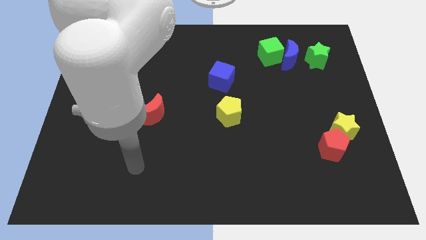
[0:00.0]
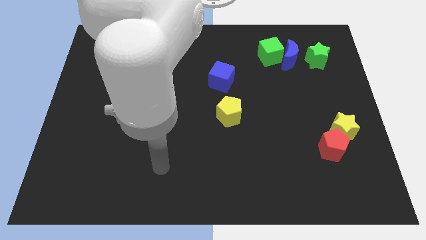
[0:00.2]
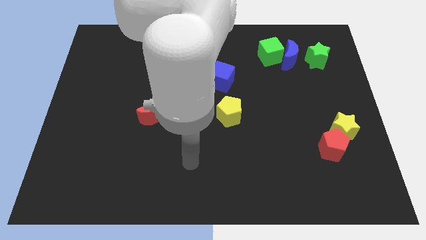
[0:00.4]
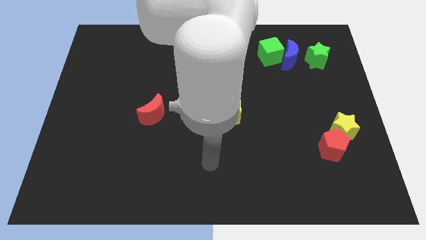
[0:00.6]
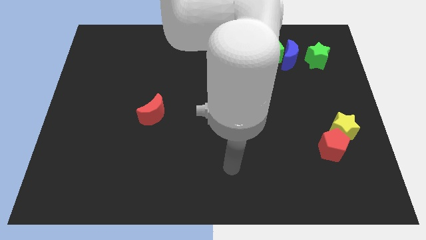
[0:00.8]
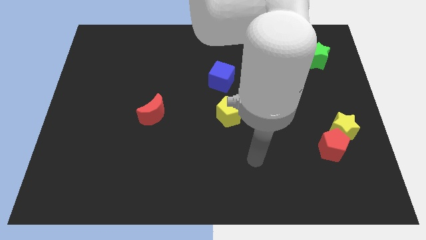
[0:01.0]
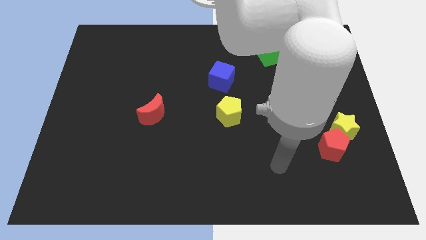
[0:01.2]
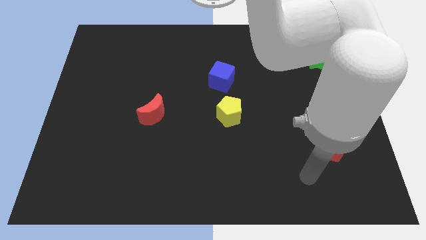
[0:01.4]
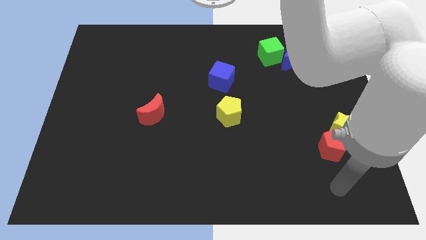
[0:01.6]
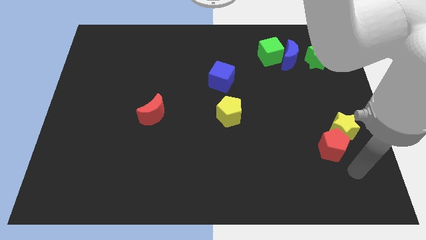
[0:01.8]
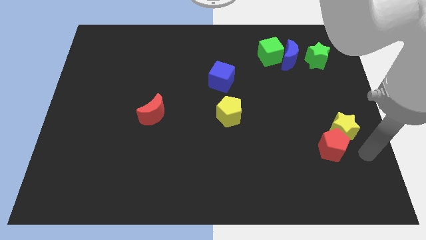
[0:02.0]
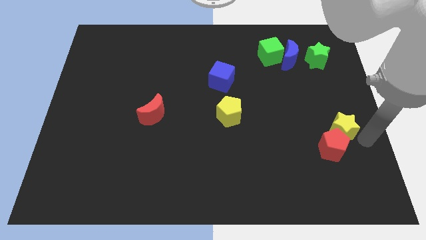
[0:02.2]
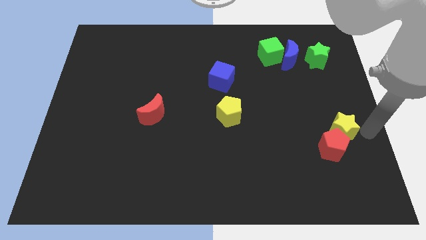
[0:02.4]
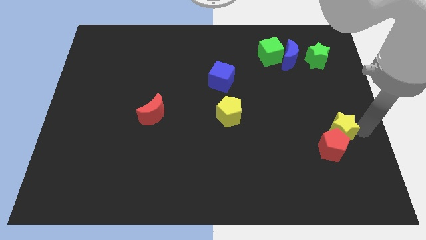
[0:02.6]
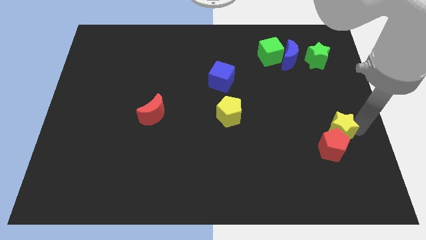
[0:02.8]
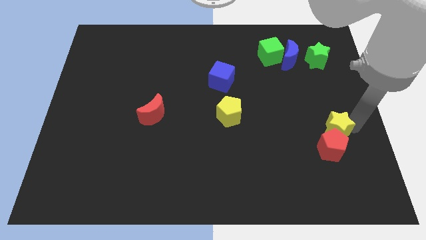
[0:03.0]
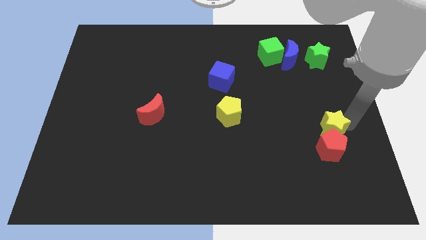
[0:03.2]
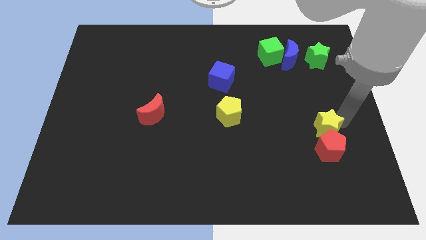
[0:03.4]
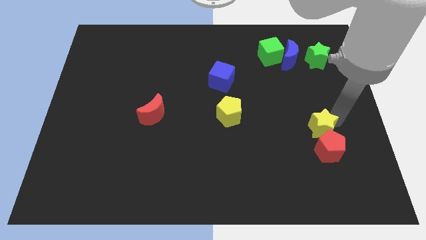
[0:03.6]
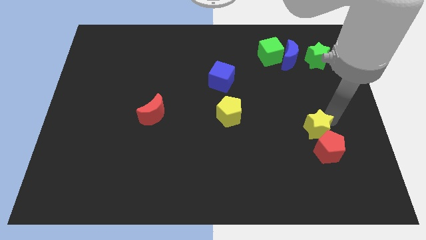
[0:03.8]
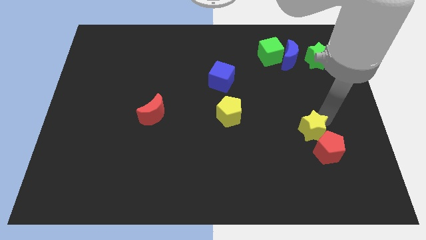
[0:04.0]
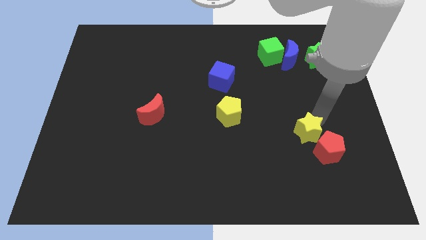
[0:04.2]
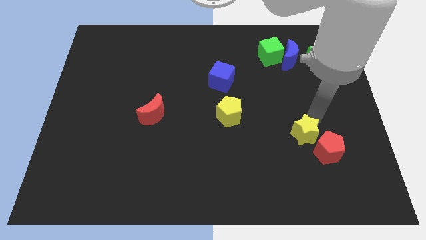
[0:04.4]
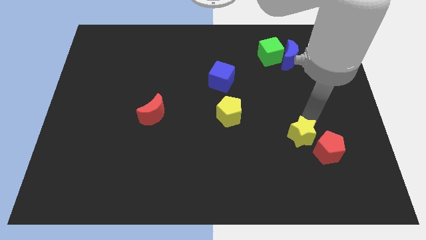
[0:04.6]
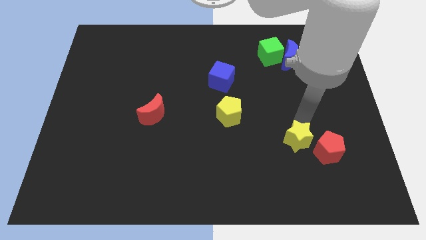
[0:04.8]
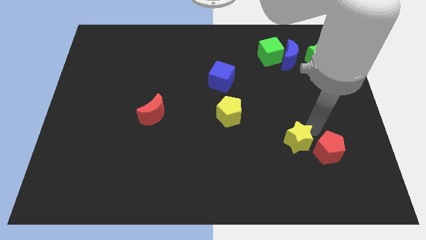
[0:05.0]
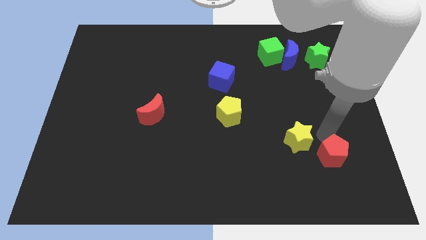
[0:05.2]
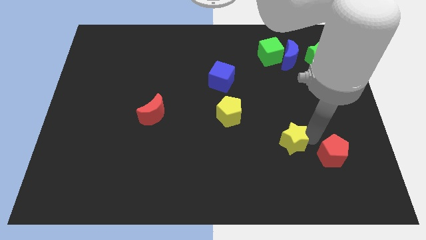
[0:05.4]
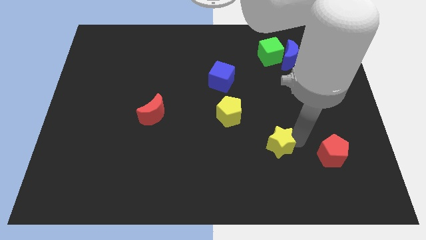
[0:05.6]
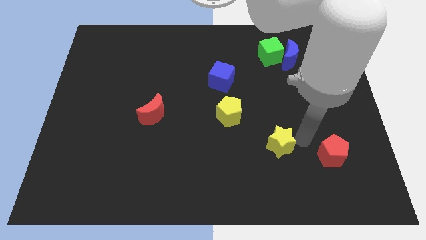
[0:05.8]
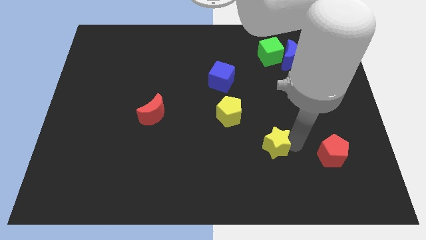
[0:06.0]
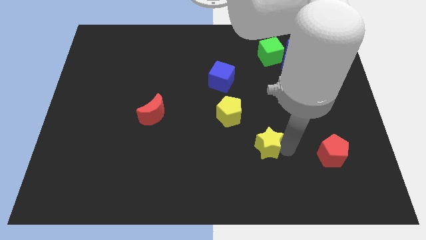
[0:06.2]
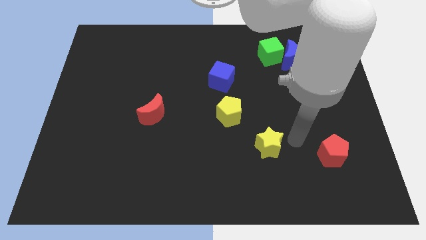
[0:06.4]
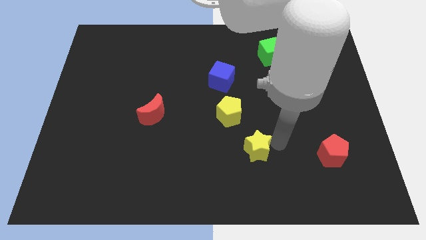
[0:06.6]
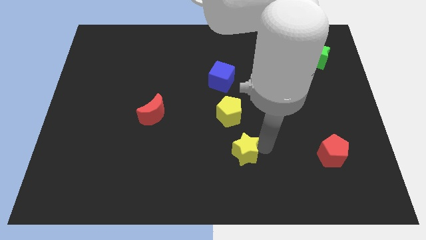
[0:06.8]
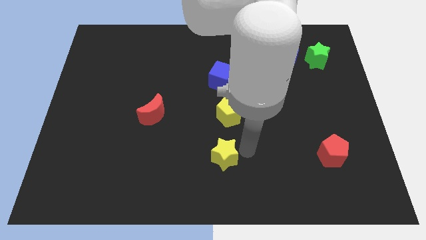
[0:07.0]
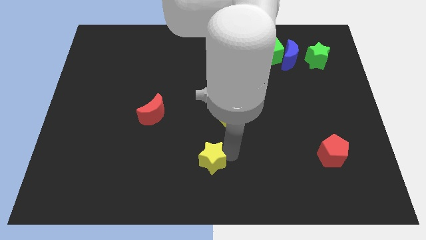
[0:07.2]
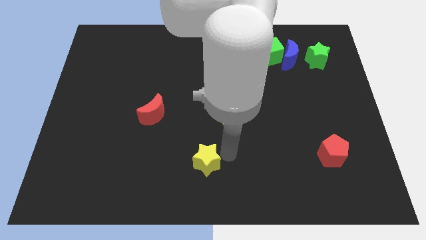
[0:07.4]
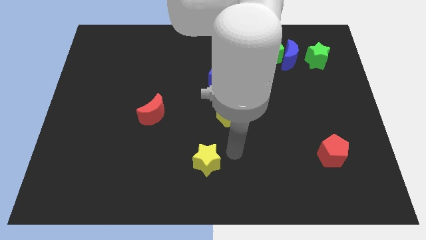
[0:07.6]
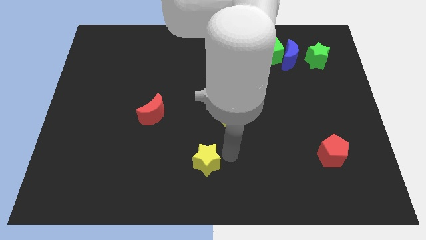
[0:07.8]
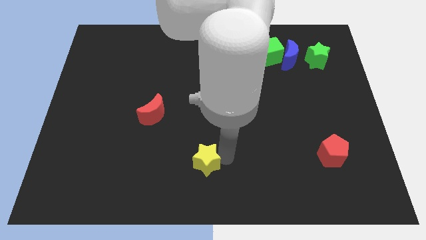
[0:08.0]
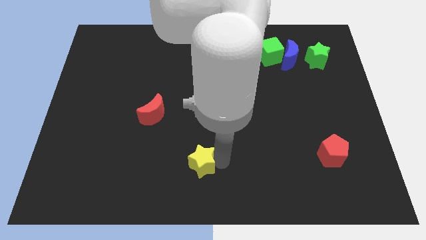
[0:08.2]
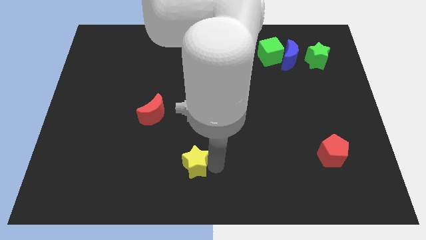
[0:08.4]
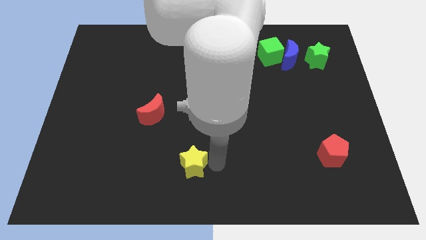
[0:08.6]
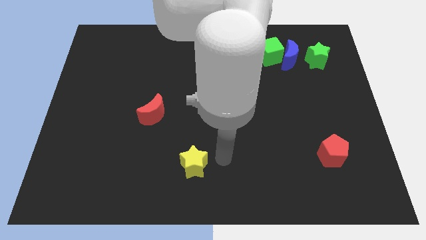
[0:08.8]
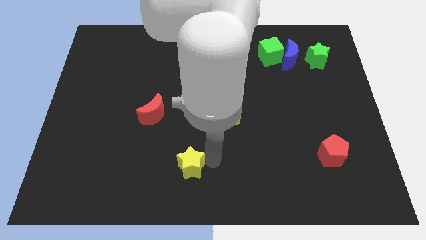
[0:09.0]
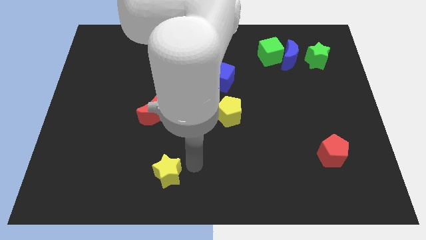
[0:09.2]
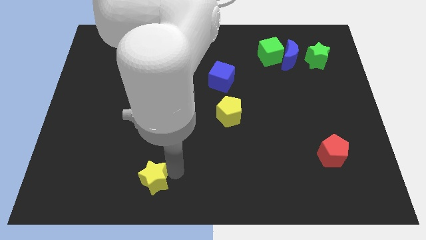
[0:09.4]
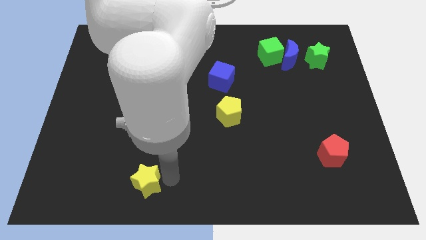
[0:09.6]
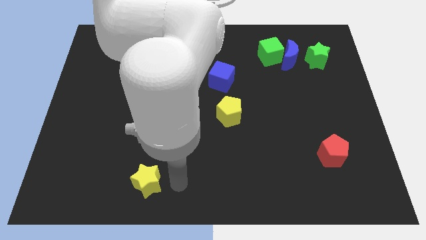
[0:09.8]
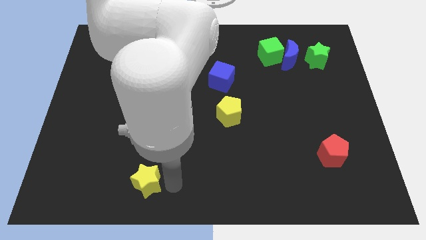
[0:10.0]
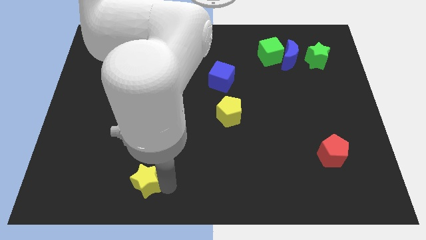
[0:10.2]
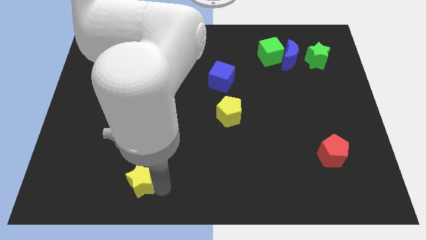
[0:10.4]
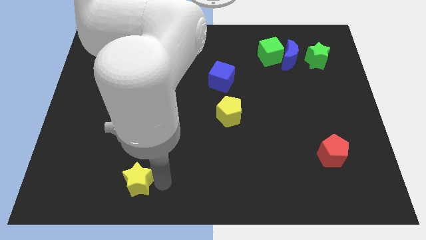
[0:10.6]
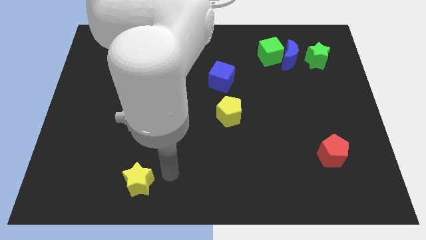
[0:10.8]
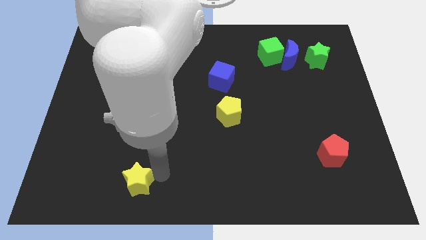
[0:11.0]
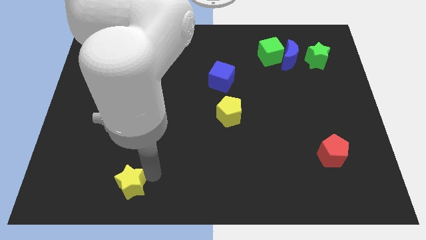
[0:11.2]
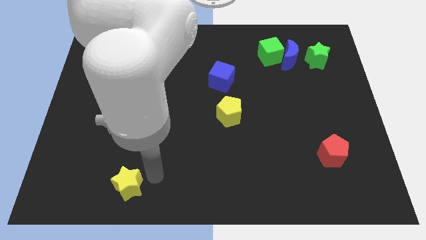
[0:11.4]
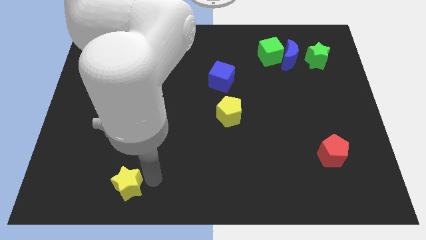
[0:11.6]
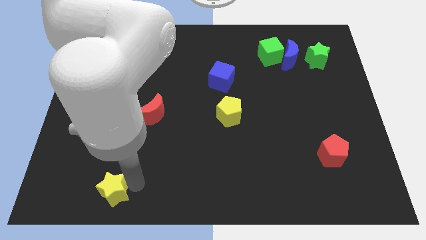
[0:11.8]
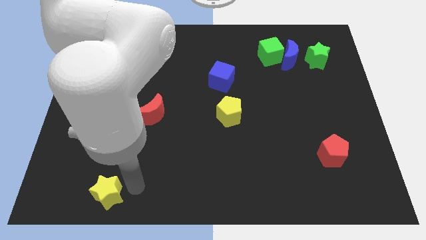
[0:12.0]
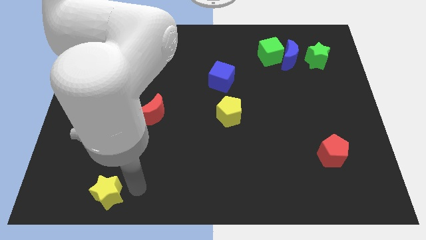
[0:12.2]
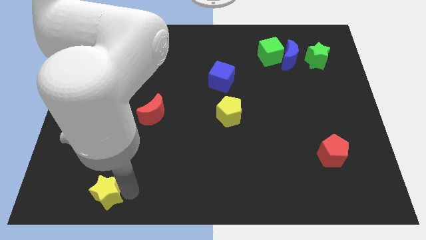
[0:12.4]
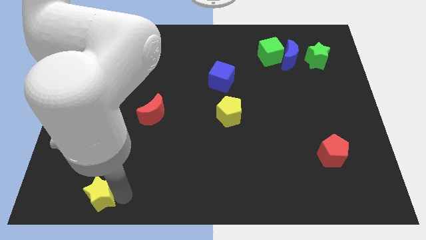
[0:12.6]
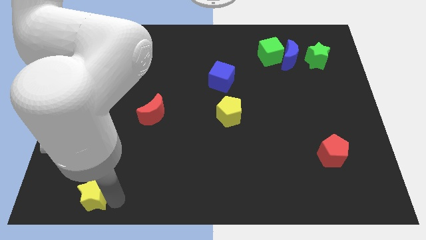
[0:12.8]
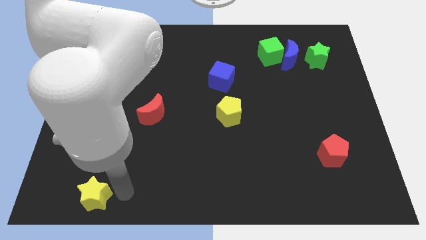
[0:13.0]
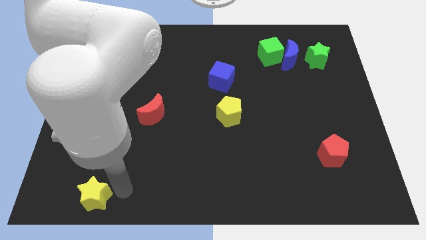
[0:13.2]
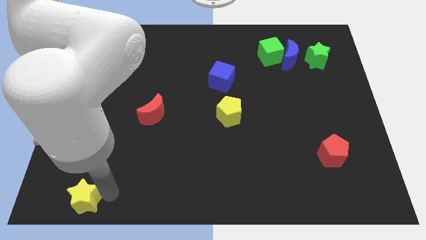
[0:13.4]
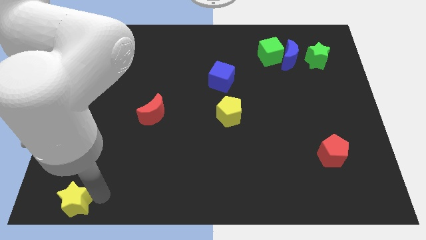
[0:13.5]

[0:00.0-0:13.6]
slide the yellow star to the bottom left
